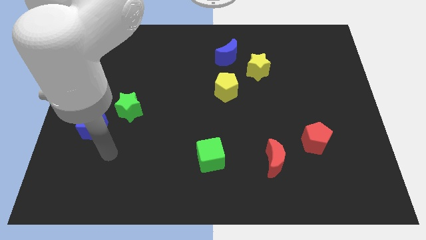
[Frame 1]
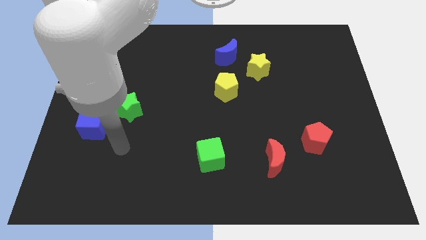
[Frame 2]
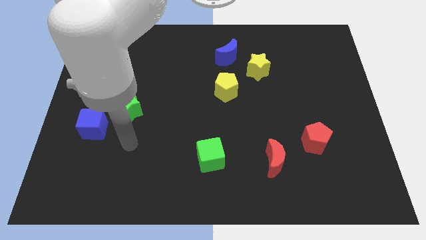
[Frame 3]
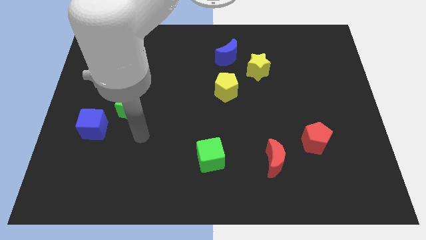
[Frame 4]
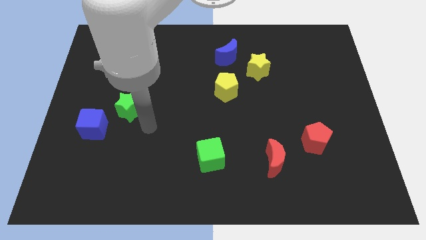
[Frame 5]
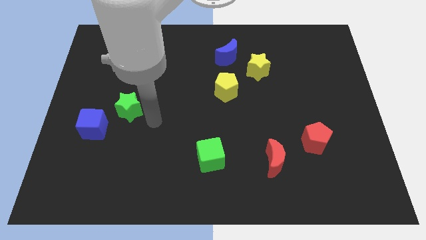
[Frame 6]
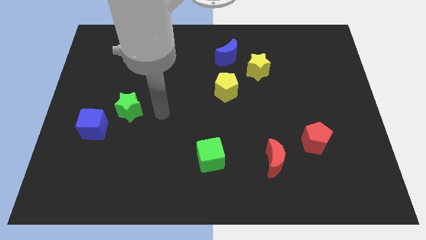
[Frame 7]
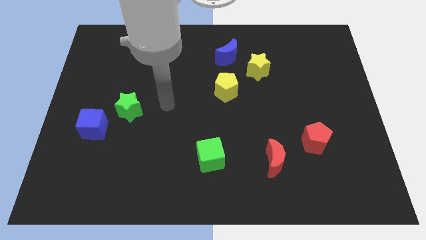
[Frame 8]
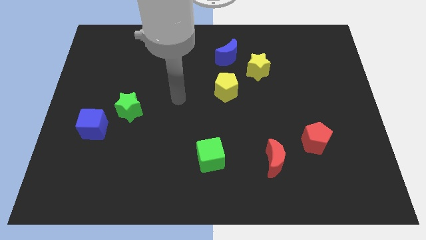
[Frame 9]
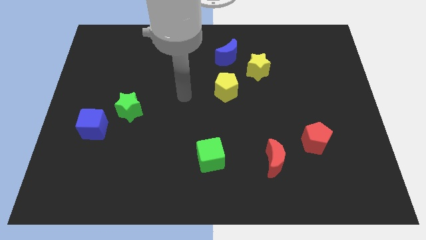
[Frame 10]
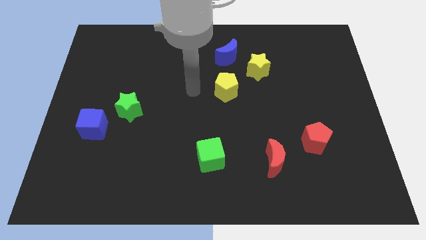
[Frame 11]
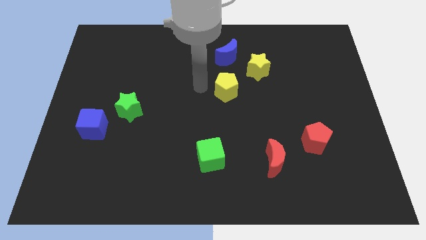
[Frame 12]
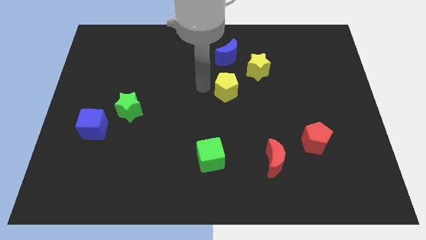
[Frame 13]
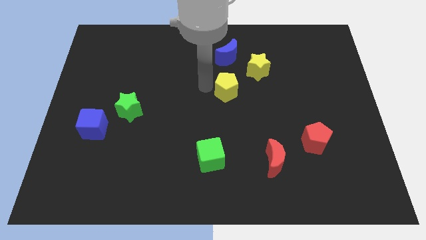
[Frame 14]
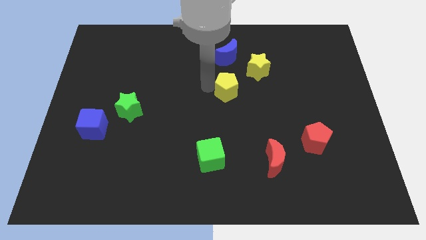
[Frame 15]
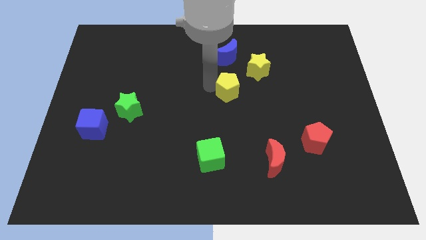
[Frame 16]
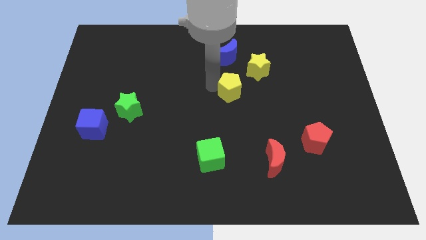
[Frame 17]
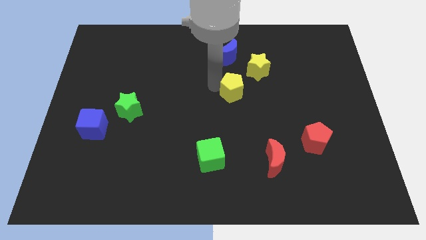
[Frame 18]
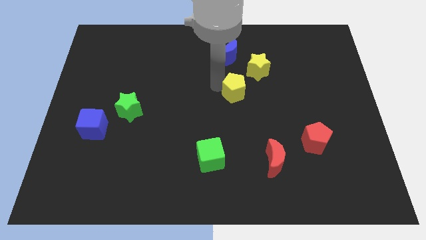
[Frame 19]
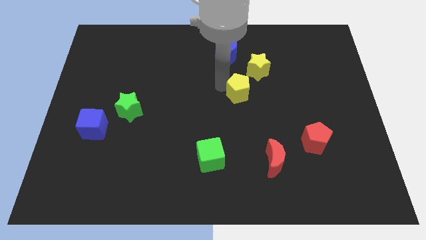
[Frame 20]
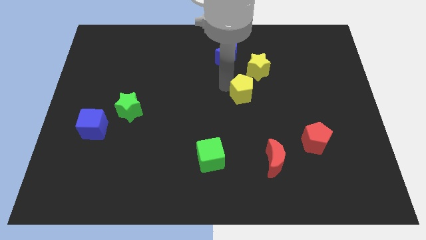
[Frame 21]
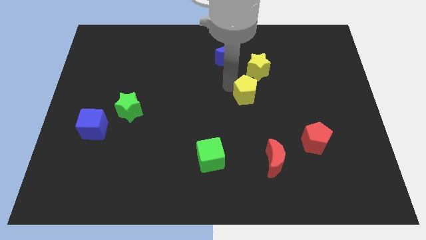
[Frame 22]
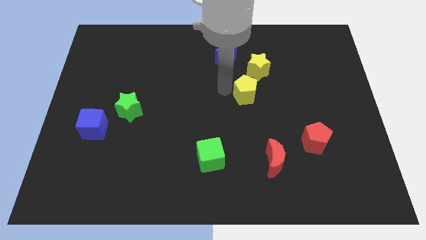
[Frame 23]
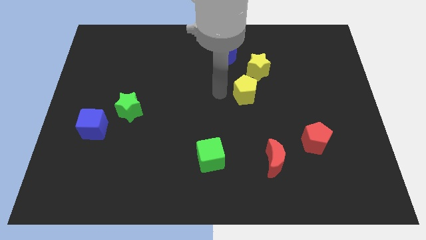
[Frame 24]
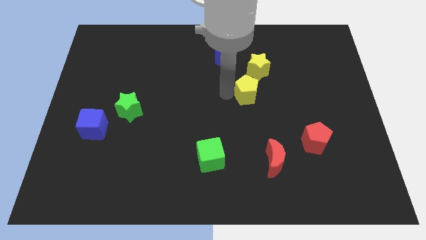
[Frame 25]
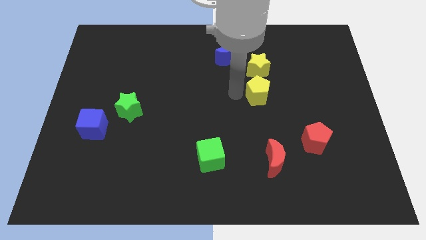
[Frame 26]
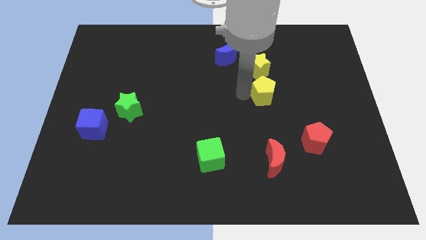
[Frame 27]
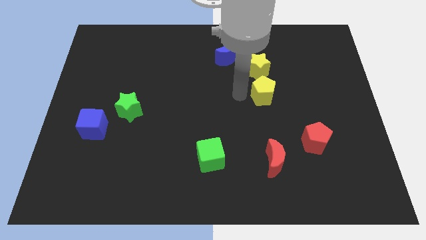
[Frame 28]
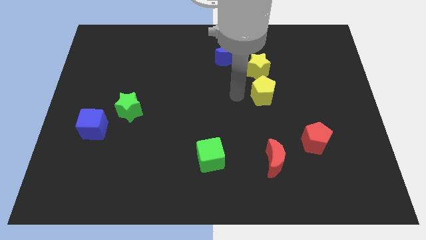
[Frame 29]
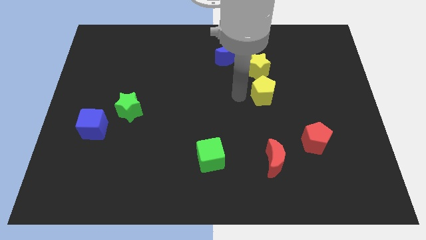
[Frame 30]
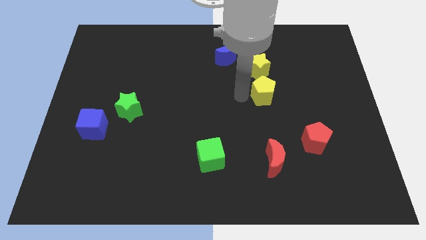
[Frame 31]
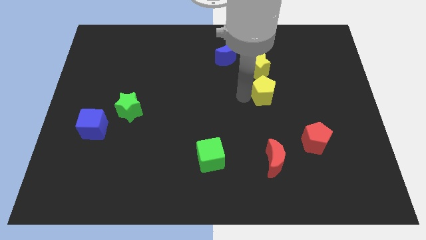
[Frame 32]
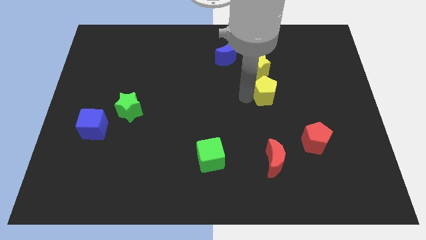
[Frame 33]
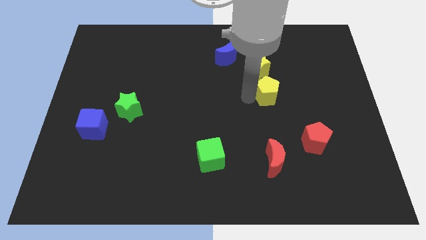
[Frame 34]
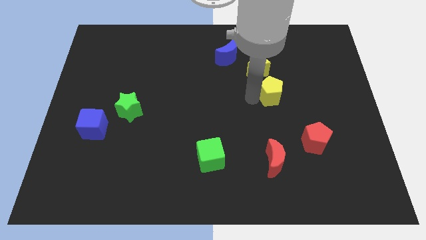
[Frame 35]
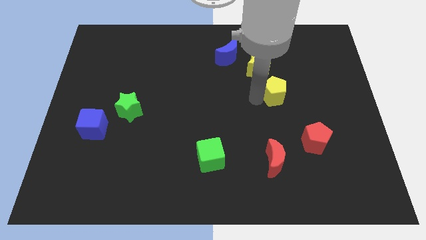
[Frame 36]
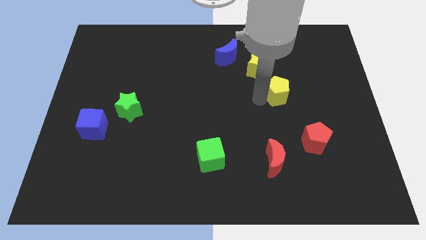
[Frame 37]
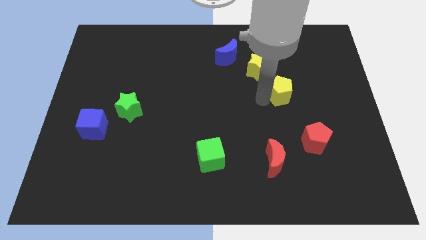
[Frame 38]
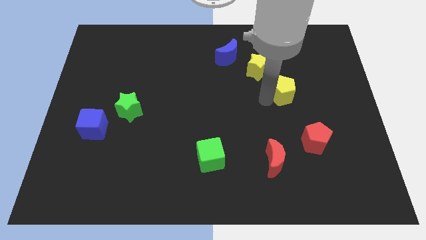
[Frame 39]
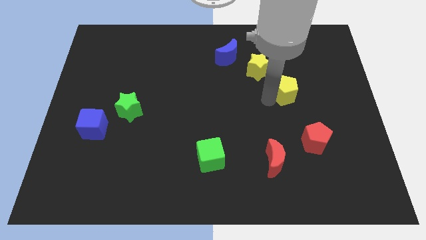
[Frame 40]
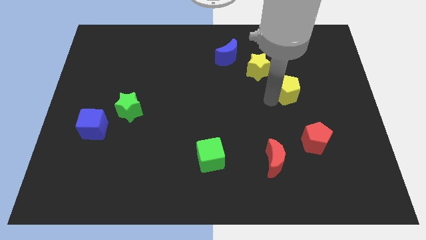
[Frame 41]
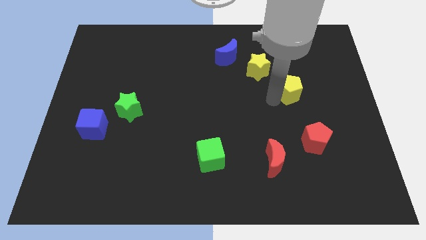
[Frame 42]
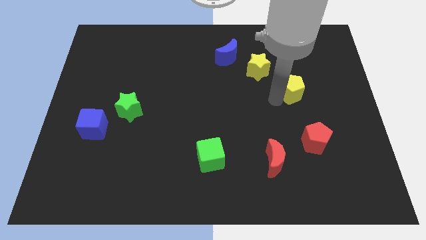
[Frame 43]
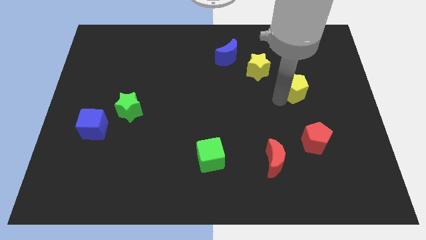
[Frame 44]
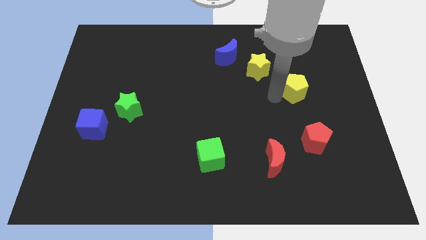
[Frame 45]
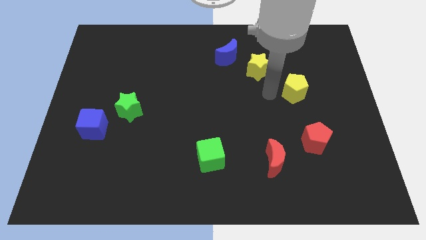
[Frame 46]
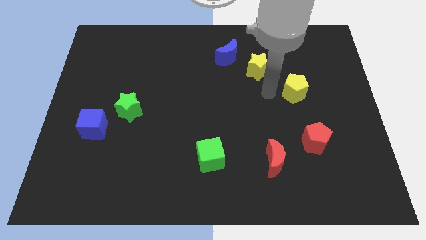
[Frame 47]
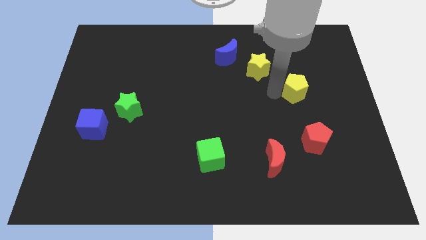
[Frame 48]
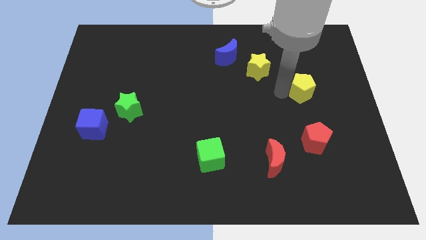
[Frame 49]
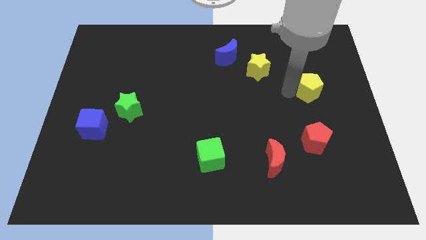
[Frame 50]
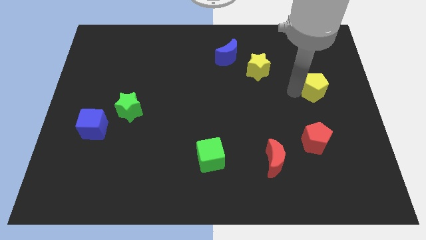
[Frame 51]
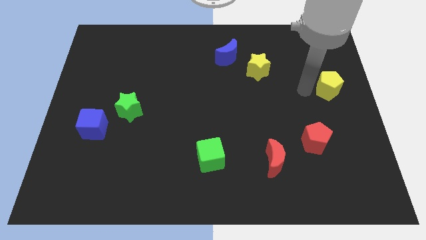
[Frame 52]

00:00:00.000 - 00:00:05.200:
slide the yellow pentagon to the right side of the board

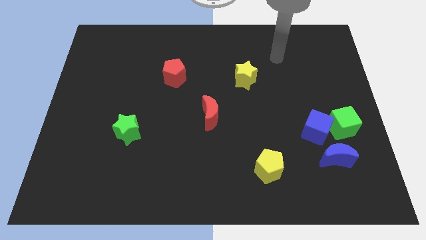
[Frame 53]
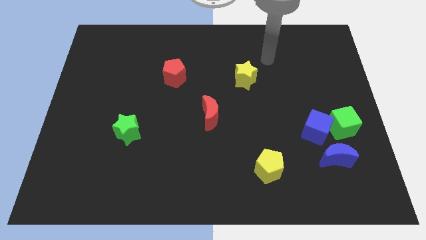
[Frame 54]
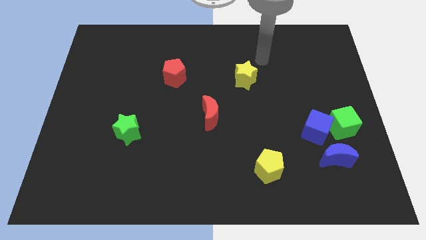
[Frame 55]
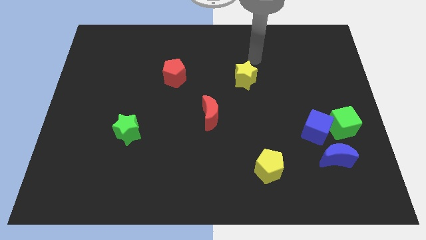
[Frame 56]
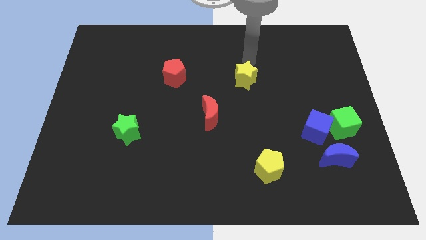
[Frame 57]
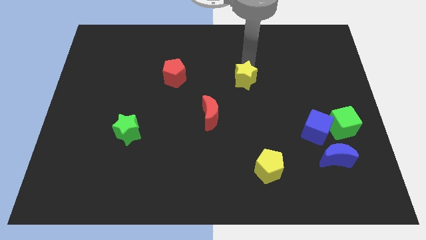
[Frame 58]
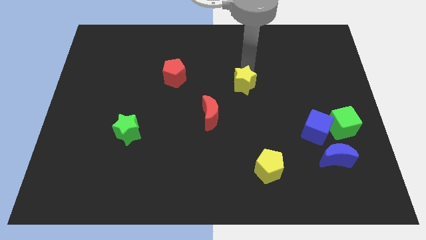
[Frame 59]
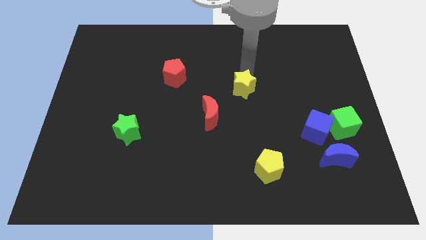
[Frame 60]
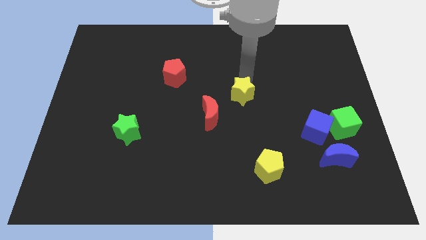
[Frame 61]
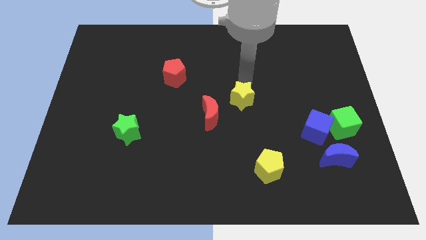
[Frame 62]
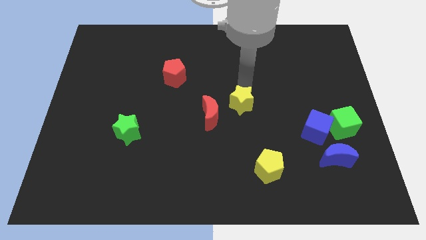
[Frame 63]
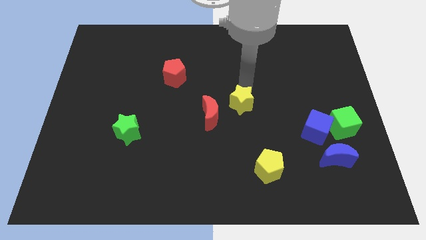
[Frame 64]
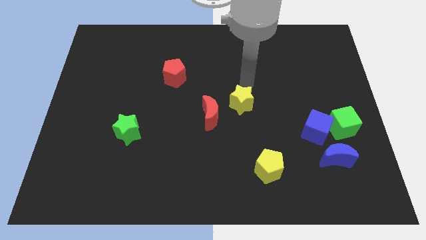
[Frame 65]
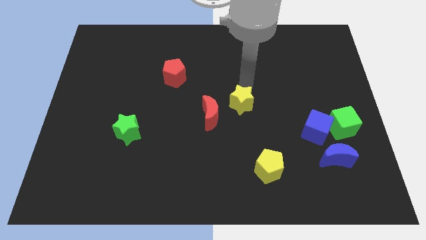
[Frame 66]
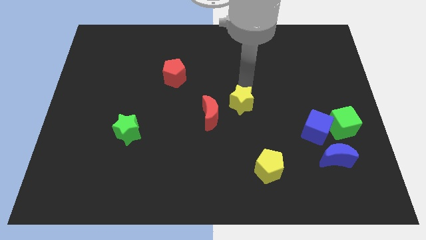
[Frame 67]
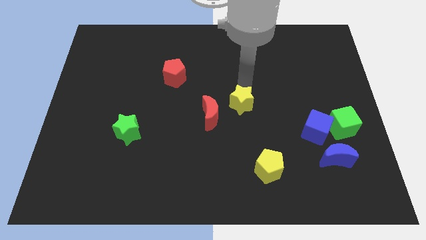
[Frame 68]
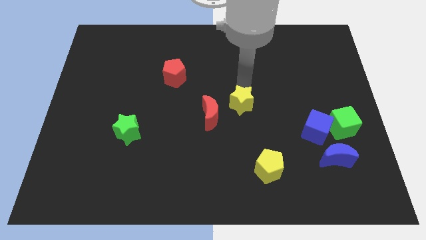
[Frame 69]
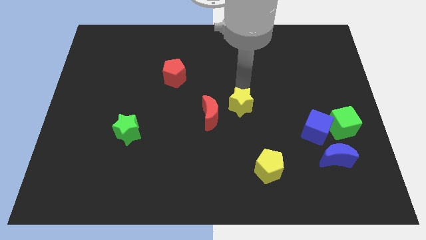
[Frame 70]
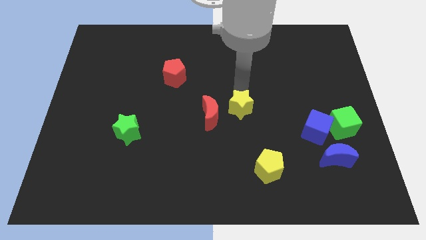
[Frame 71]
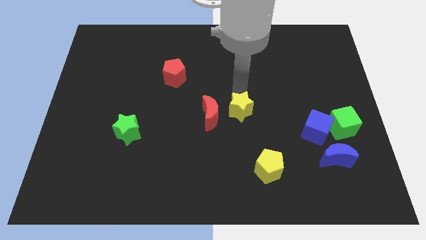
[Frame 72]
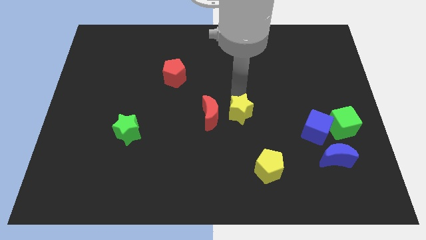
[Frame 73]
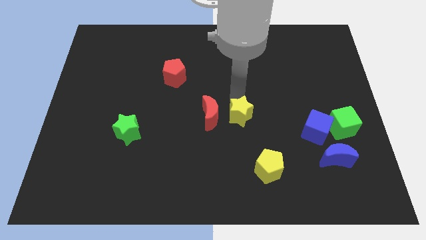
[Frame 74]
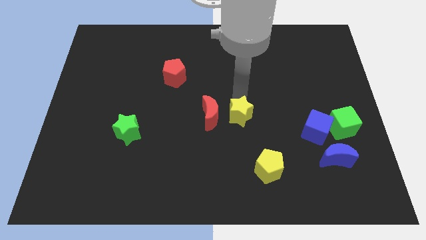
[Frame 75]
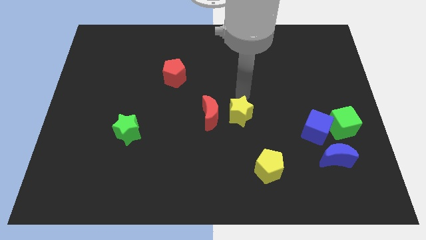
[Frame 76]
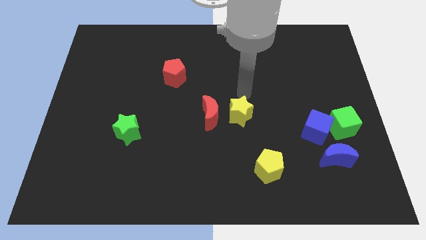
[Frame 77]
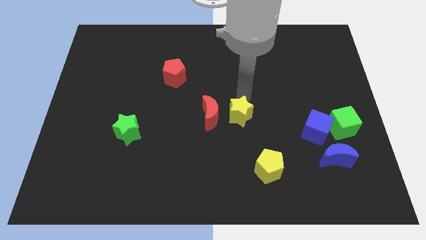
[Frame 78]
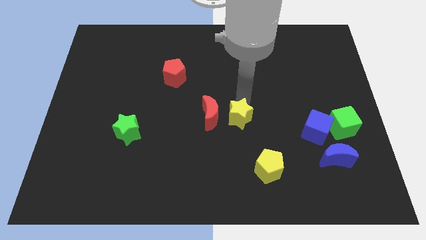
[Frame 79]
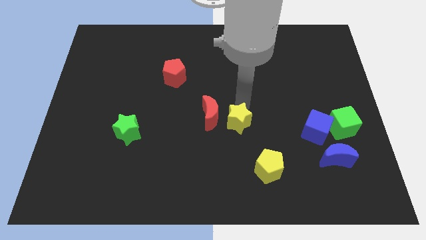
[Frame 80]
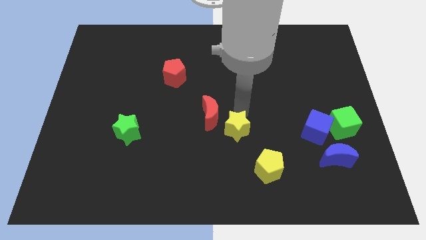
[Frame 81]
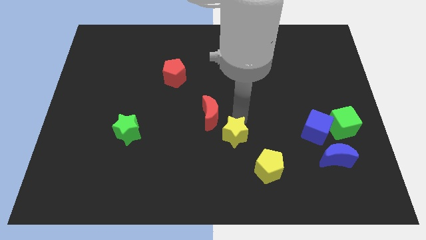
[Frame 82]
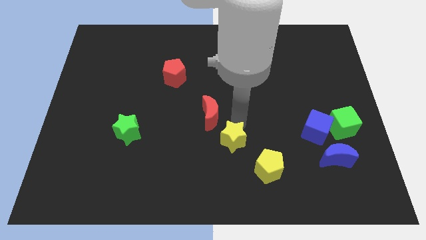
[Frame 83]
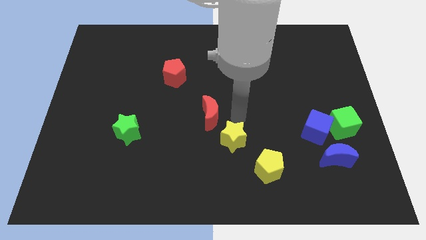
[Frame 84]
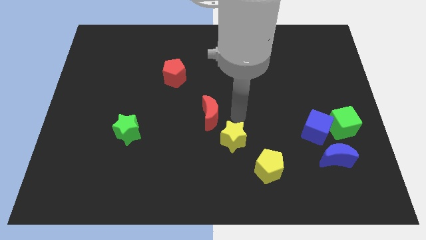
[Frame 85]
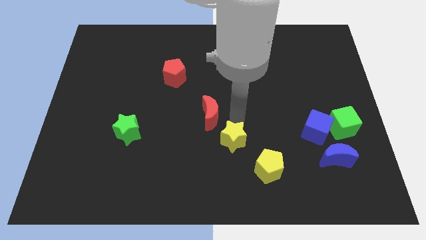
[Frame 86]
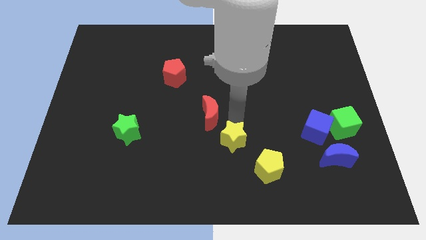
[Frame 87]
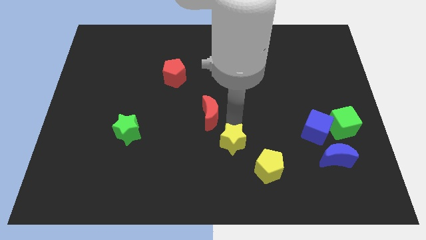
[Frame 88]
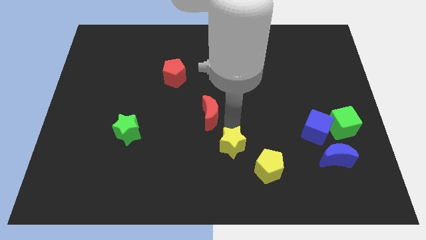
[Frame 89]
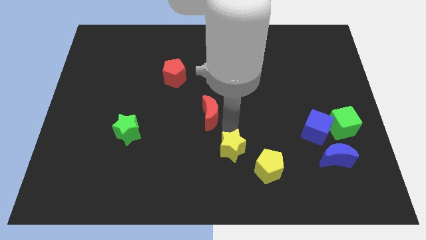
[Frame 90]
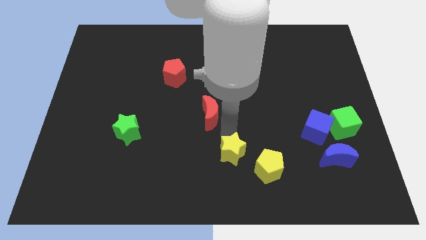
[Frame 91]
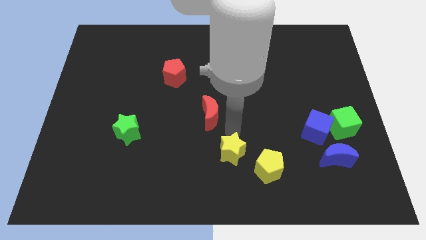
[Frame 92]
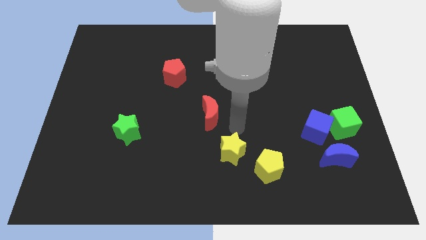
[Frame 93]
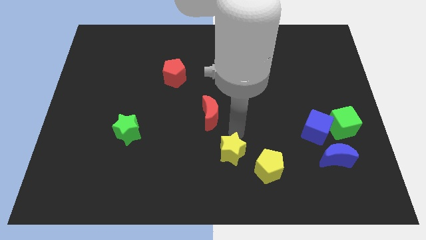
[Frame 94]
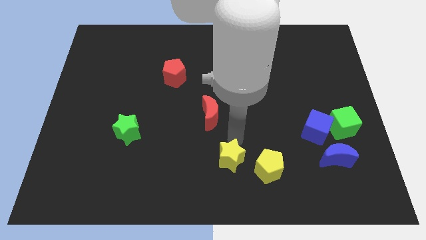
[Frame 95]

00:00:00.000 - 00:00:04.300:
put the yellow star to the bottom
